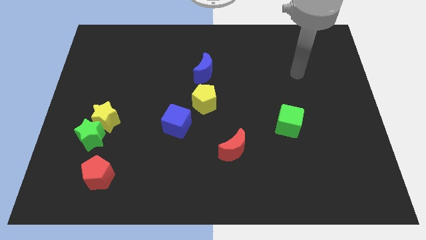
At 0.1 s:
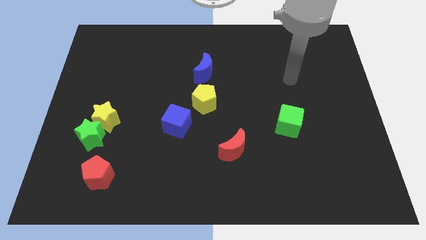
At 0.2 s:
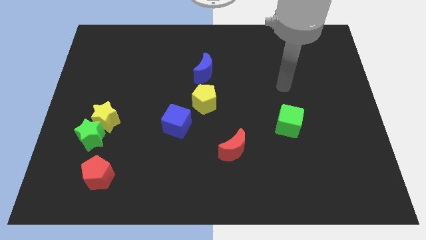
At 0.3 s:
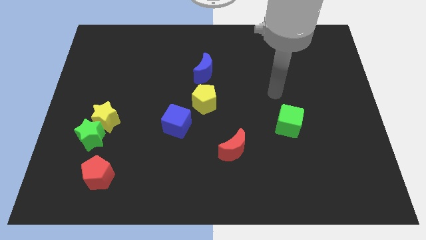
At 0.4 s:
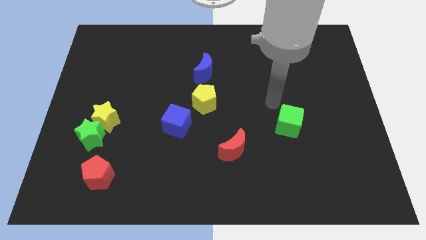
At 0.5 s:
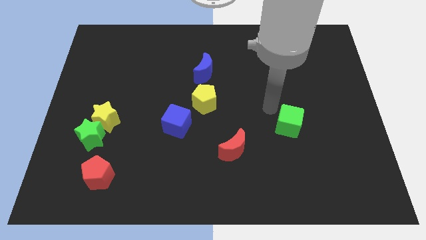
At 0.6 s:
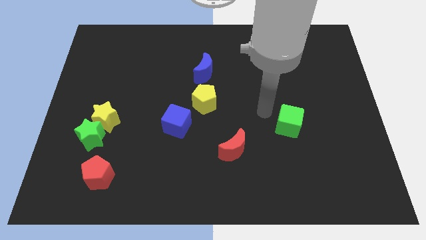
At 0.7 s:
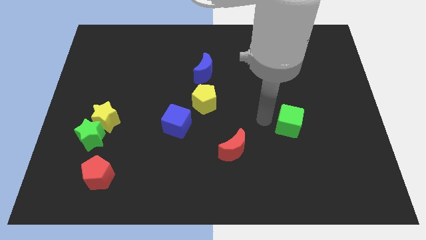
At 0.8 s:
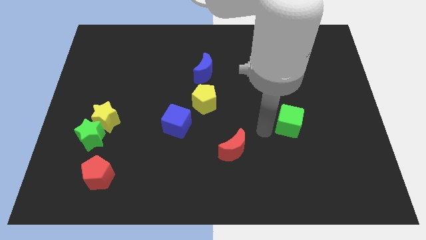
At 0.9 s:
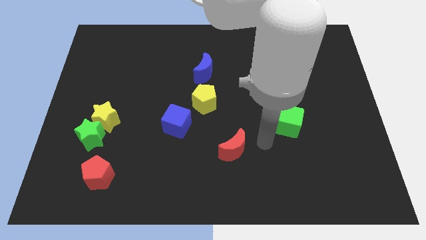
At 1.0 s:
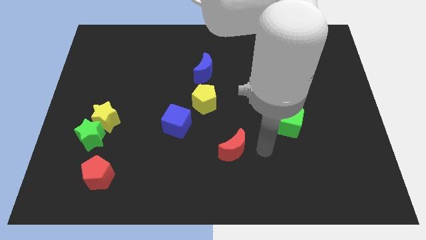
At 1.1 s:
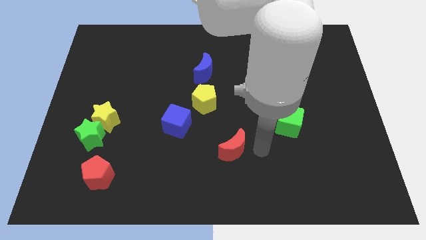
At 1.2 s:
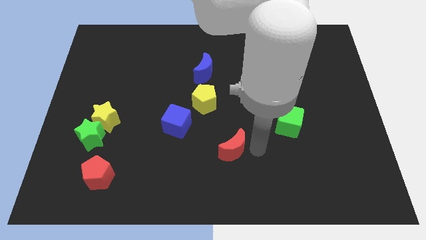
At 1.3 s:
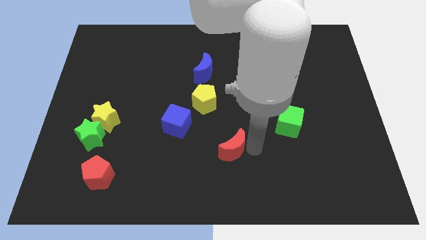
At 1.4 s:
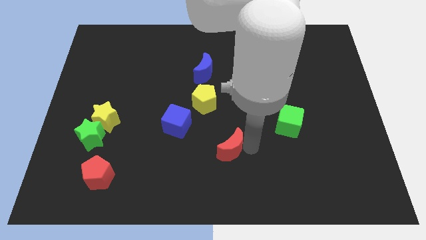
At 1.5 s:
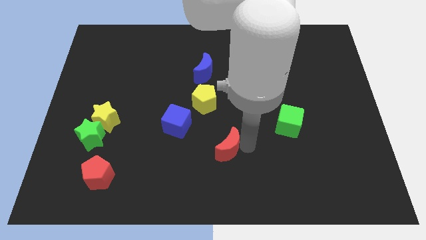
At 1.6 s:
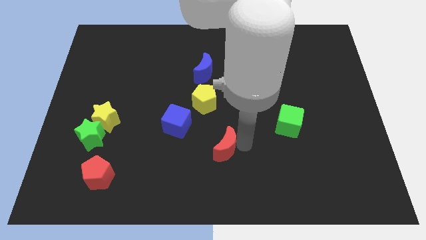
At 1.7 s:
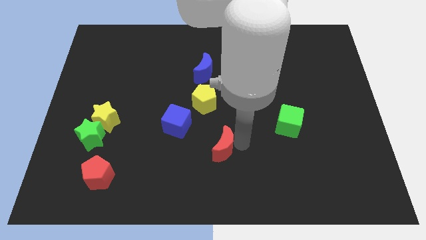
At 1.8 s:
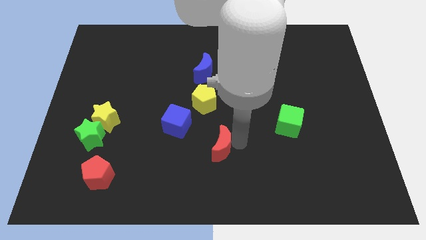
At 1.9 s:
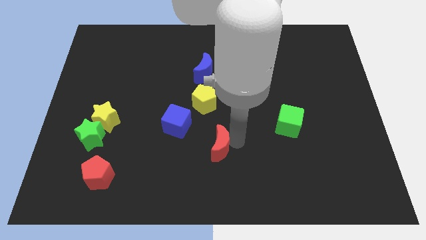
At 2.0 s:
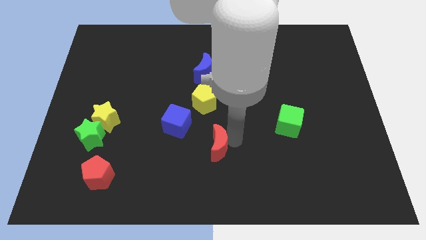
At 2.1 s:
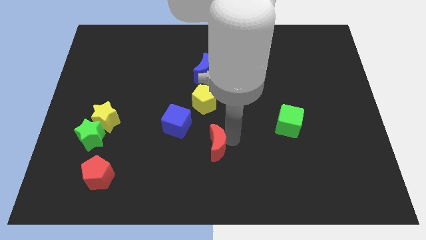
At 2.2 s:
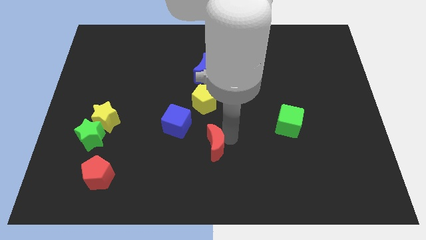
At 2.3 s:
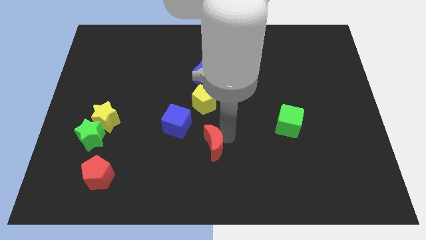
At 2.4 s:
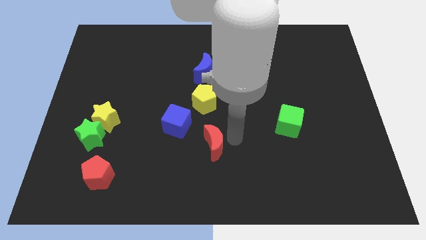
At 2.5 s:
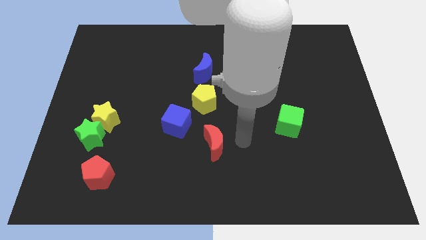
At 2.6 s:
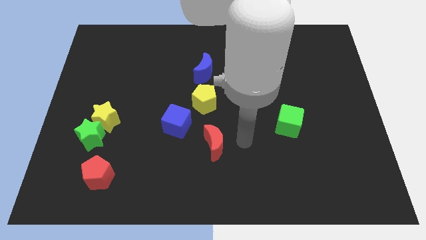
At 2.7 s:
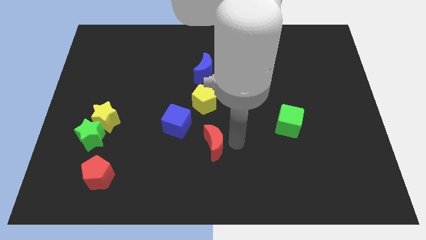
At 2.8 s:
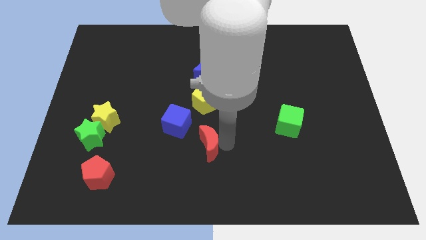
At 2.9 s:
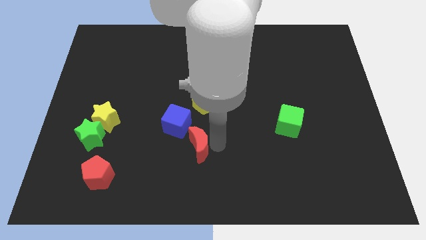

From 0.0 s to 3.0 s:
move the red moon to the left somewhat

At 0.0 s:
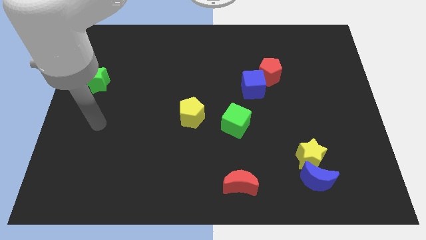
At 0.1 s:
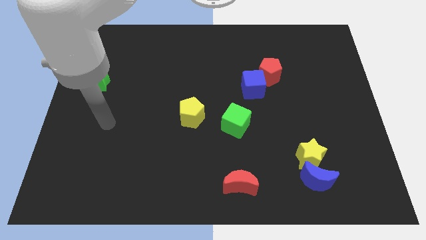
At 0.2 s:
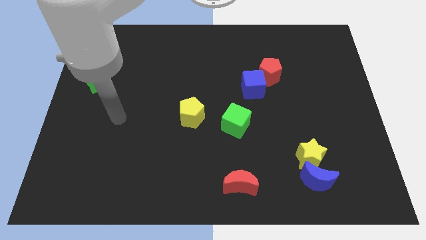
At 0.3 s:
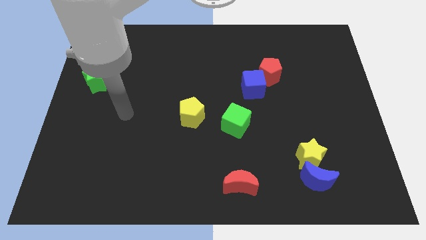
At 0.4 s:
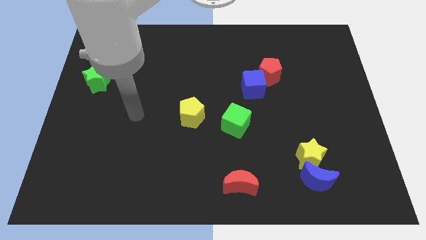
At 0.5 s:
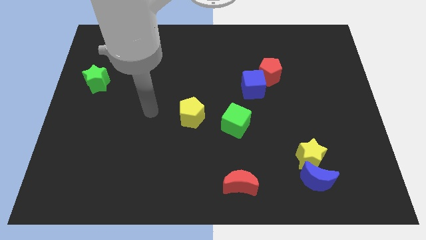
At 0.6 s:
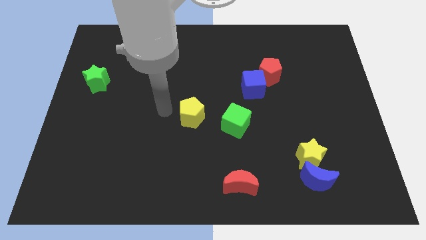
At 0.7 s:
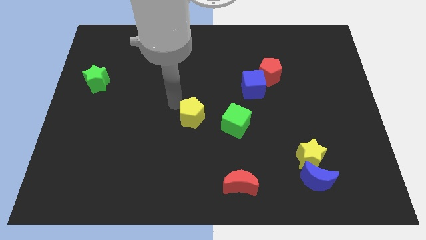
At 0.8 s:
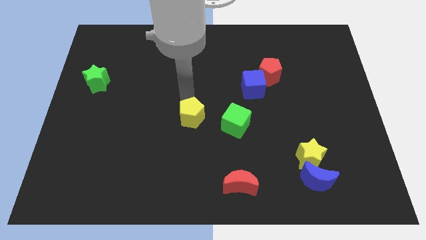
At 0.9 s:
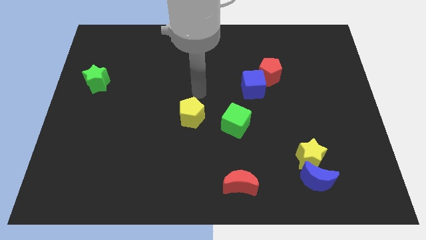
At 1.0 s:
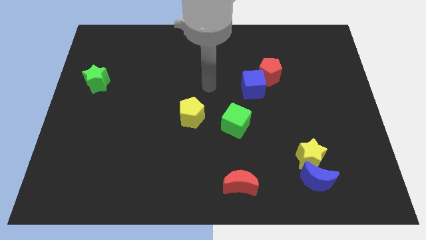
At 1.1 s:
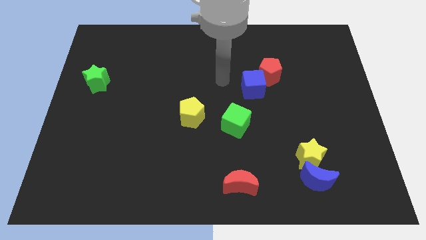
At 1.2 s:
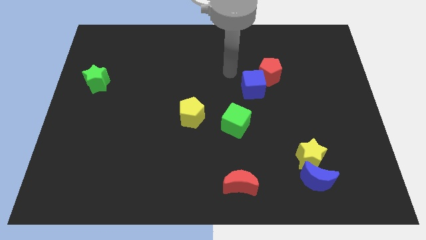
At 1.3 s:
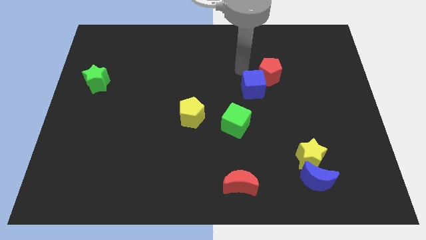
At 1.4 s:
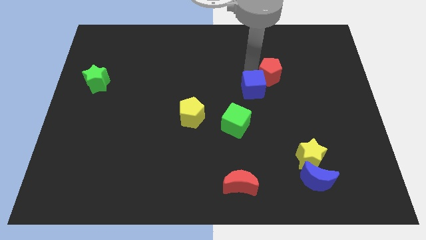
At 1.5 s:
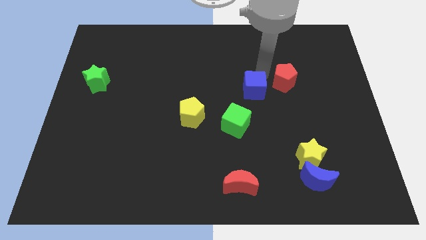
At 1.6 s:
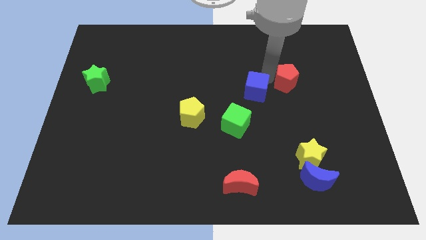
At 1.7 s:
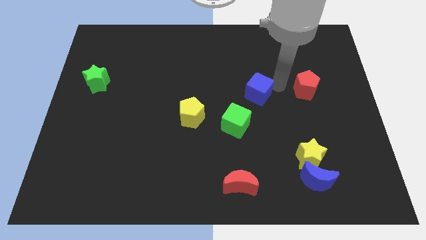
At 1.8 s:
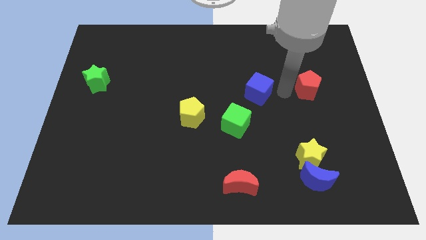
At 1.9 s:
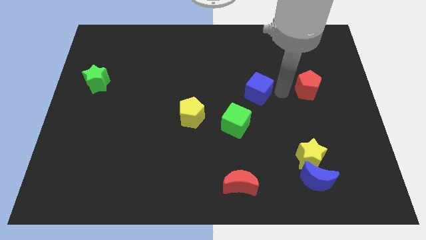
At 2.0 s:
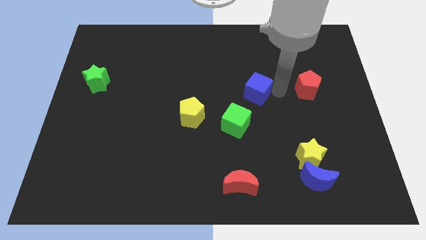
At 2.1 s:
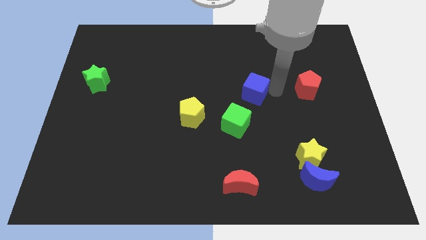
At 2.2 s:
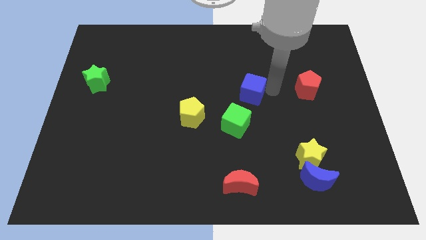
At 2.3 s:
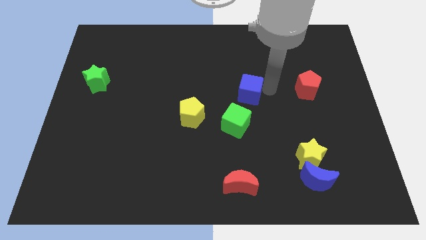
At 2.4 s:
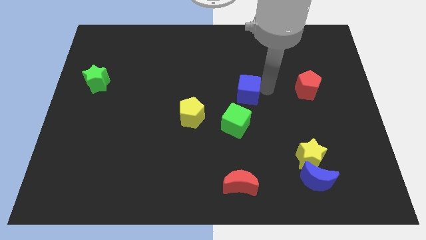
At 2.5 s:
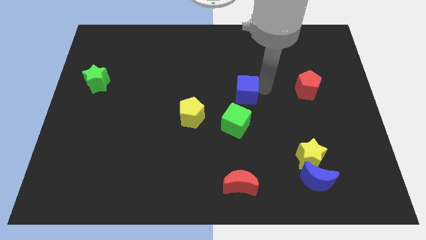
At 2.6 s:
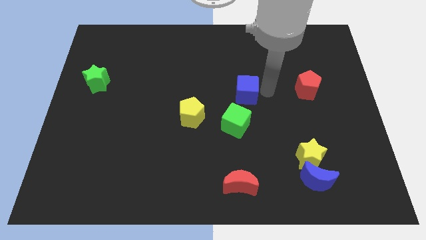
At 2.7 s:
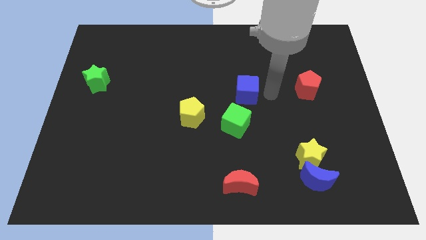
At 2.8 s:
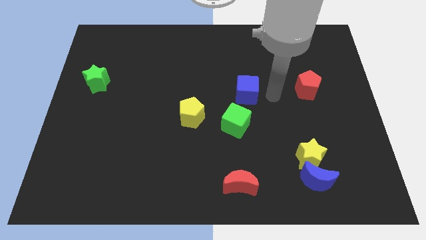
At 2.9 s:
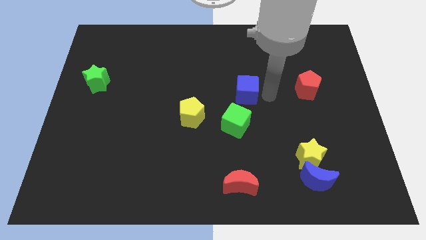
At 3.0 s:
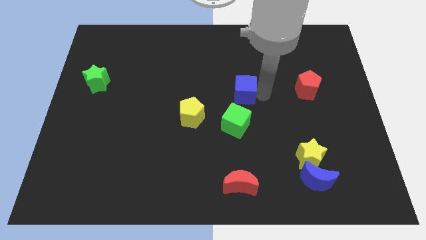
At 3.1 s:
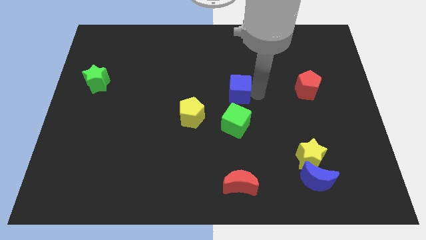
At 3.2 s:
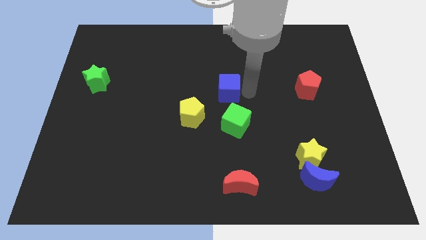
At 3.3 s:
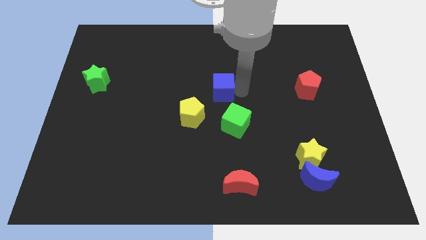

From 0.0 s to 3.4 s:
push the blue cube left a little

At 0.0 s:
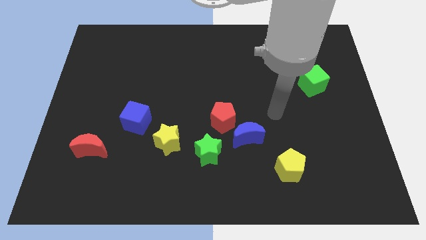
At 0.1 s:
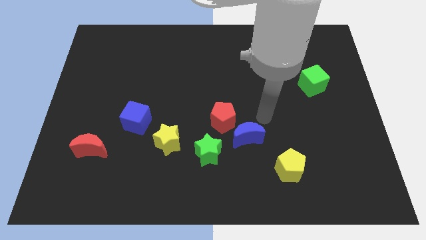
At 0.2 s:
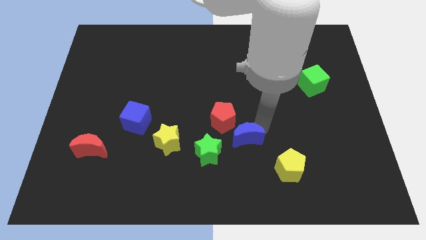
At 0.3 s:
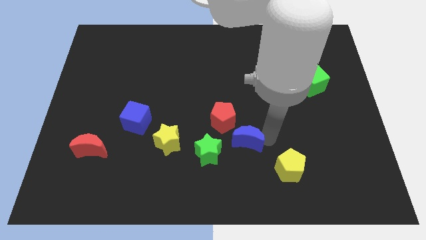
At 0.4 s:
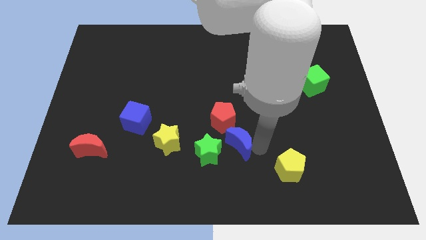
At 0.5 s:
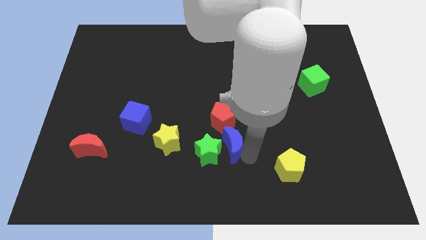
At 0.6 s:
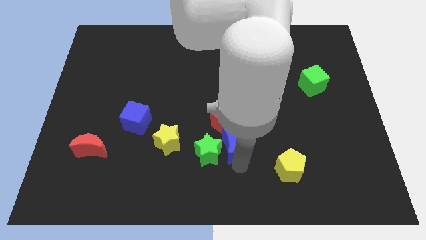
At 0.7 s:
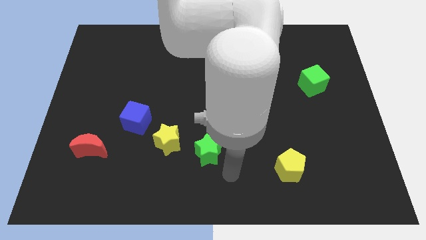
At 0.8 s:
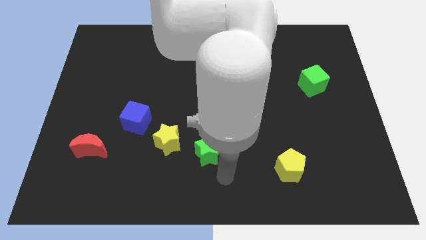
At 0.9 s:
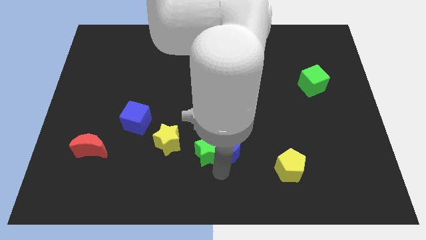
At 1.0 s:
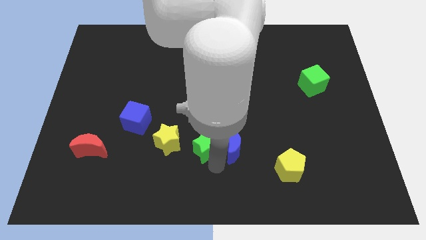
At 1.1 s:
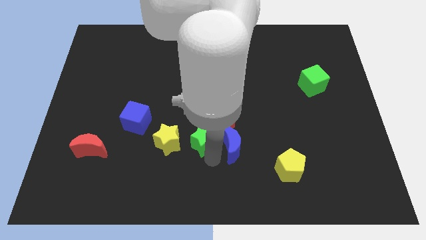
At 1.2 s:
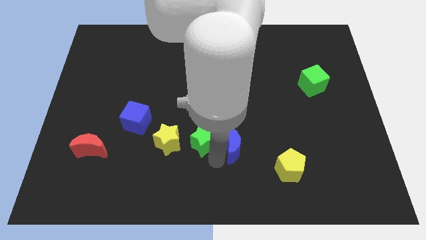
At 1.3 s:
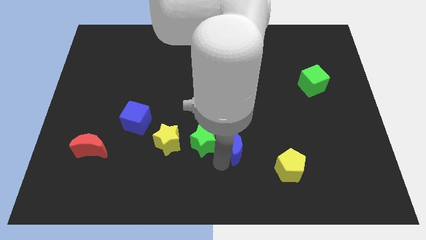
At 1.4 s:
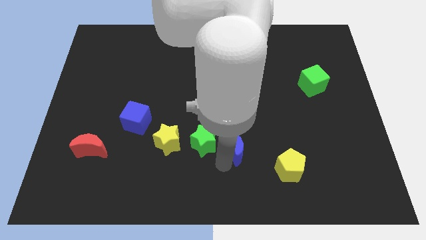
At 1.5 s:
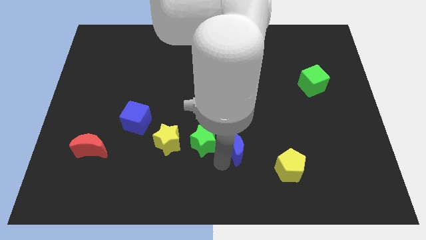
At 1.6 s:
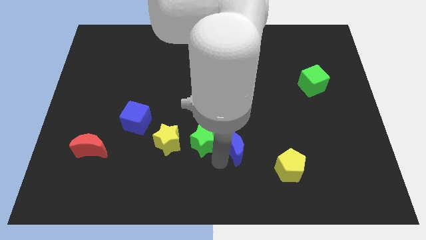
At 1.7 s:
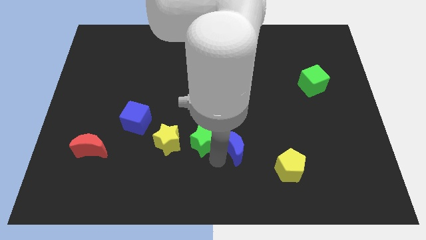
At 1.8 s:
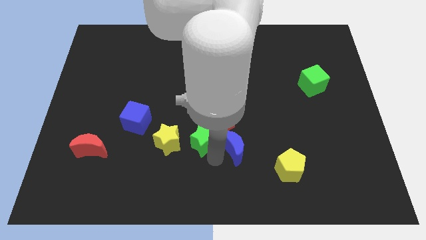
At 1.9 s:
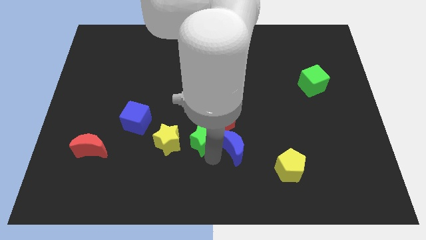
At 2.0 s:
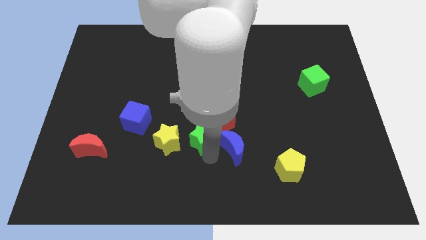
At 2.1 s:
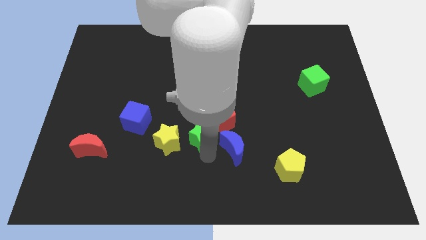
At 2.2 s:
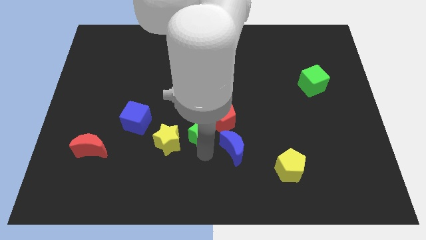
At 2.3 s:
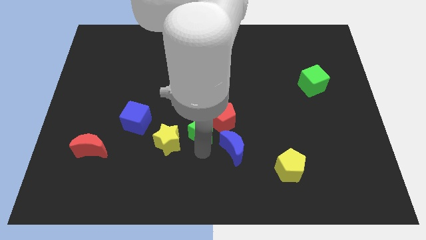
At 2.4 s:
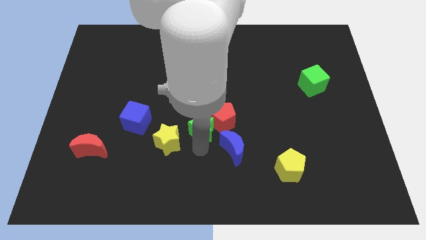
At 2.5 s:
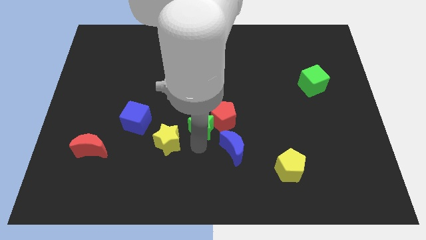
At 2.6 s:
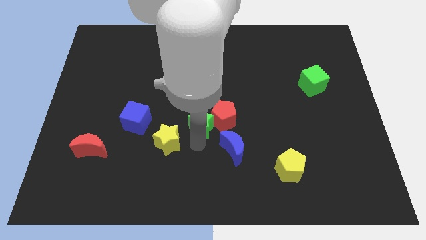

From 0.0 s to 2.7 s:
move the green star up a bit
